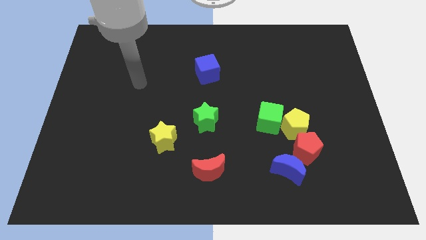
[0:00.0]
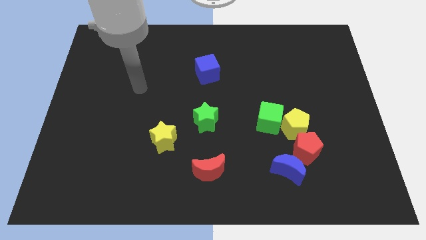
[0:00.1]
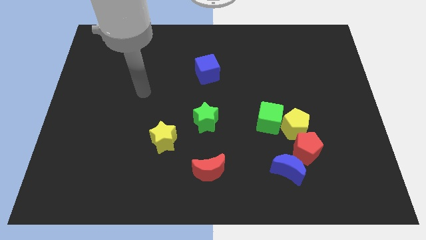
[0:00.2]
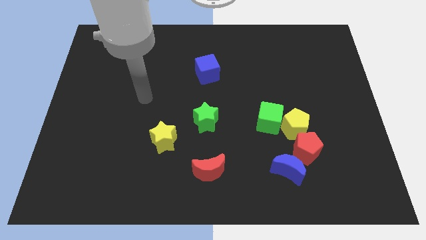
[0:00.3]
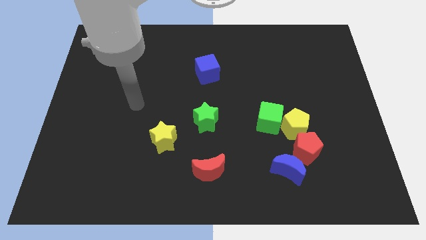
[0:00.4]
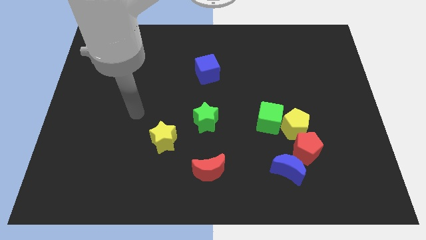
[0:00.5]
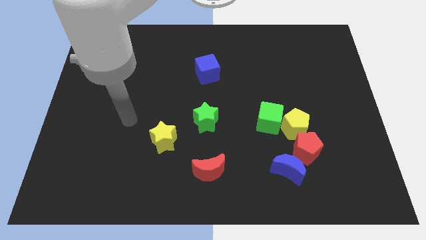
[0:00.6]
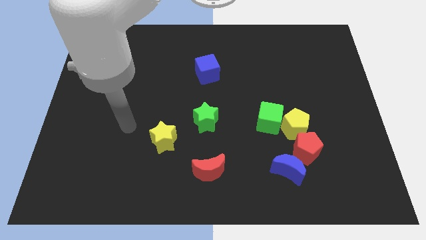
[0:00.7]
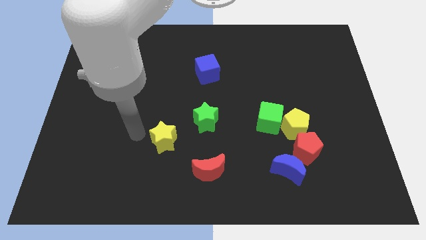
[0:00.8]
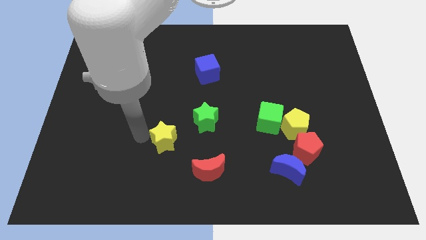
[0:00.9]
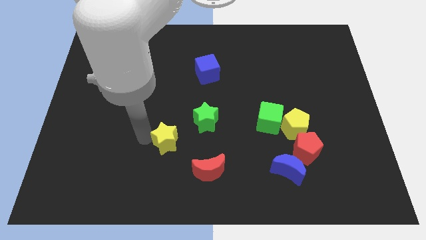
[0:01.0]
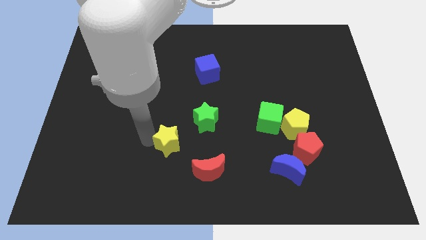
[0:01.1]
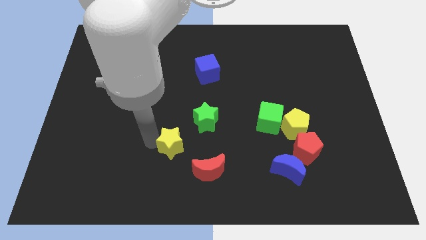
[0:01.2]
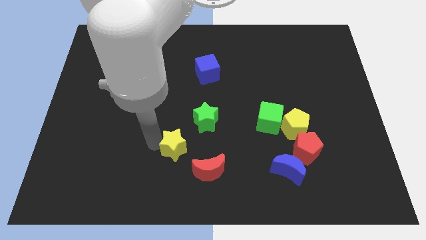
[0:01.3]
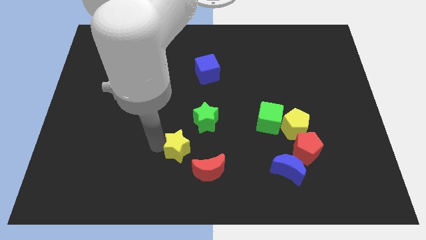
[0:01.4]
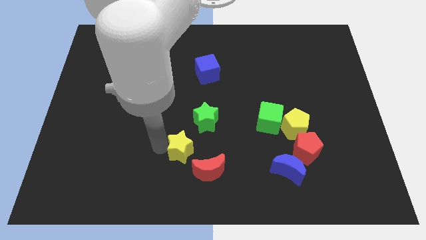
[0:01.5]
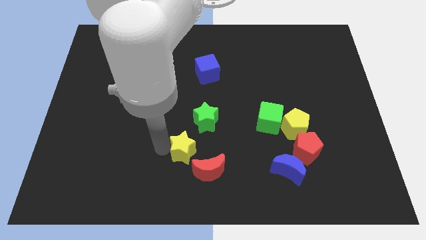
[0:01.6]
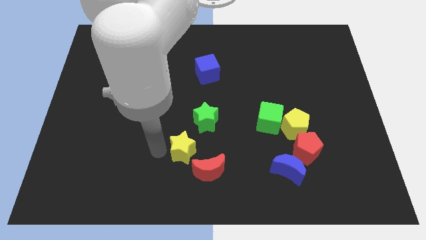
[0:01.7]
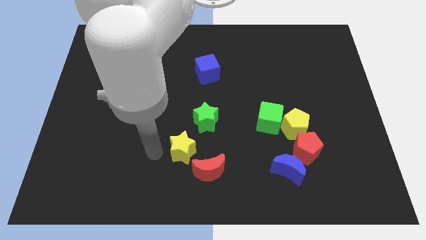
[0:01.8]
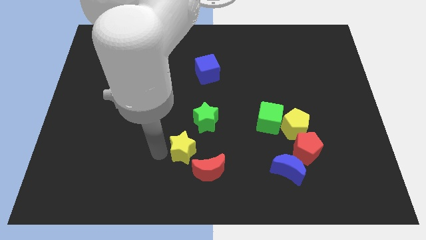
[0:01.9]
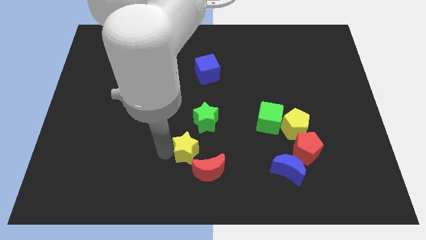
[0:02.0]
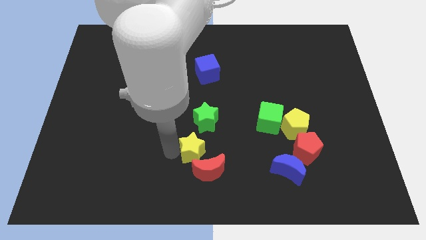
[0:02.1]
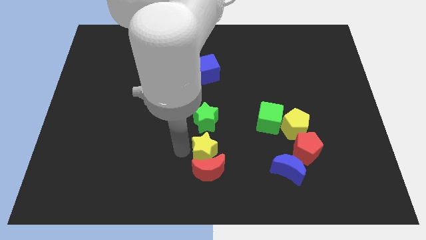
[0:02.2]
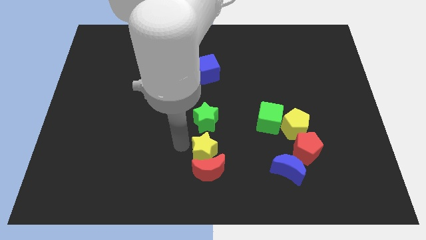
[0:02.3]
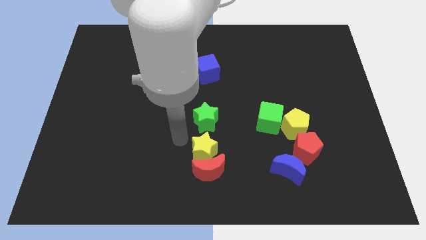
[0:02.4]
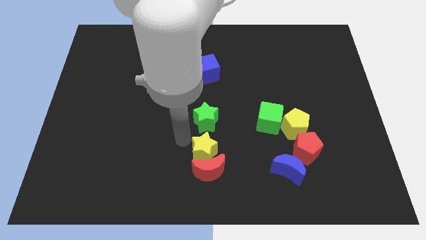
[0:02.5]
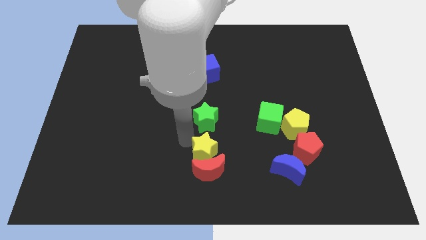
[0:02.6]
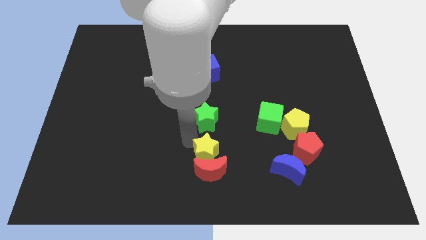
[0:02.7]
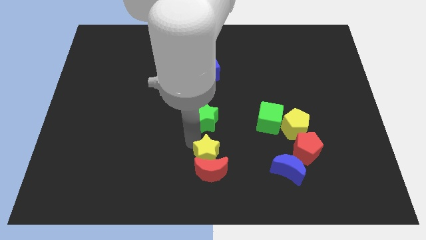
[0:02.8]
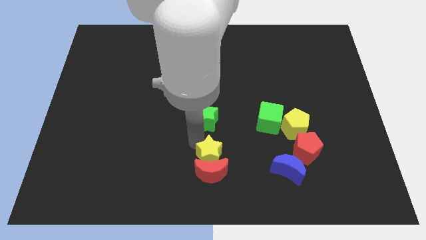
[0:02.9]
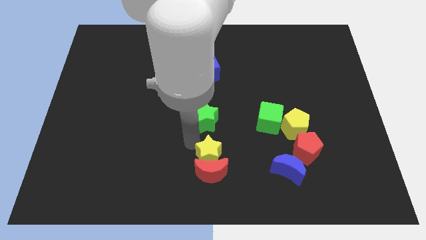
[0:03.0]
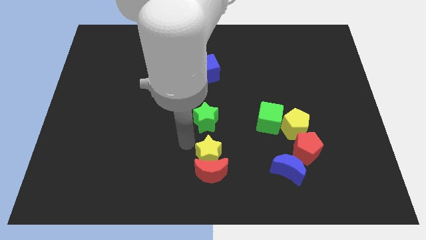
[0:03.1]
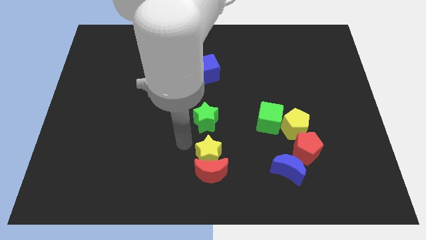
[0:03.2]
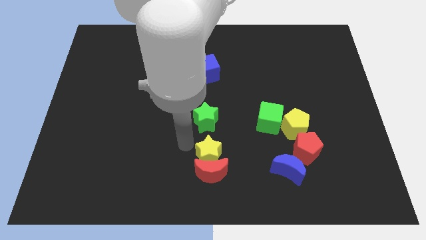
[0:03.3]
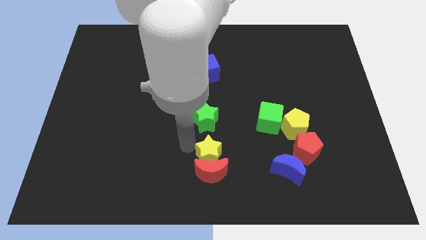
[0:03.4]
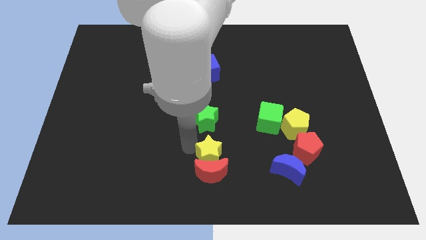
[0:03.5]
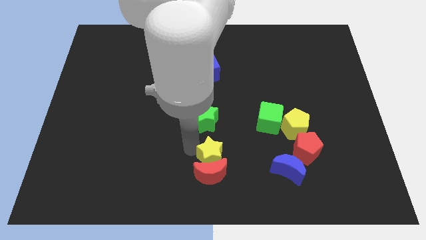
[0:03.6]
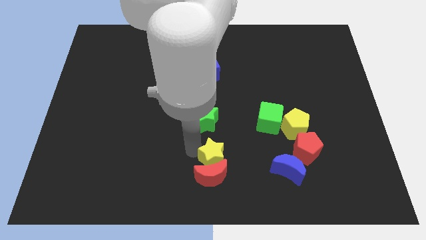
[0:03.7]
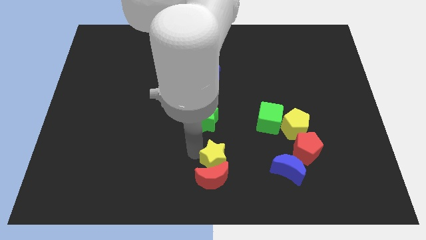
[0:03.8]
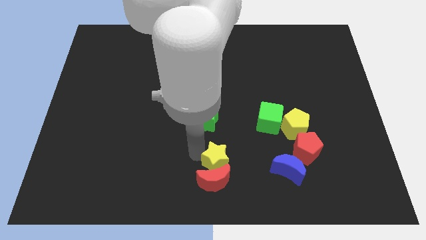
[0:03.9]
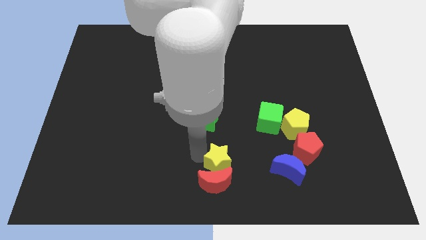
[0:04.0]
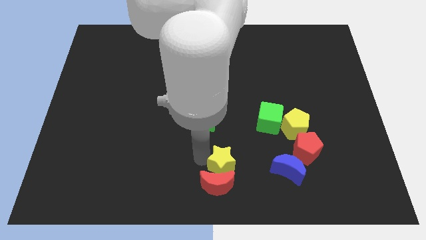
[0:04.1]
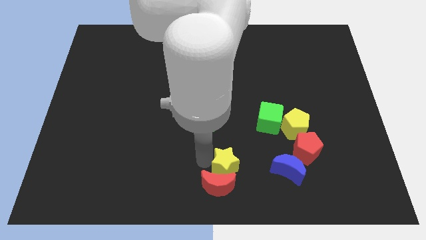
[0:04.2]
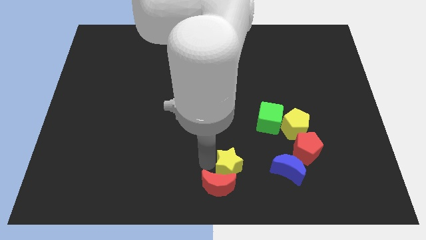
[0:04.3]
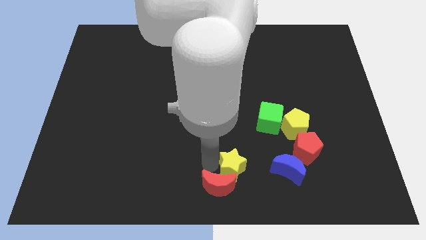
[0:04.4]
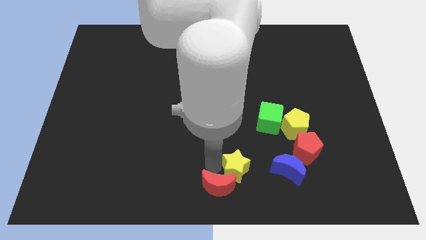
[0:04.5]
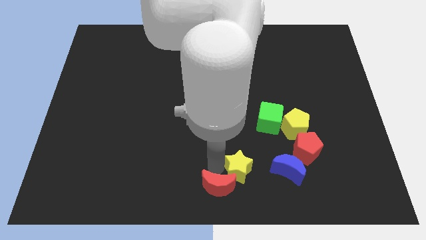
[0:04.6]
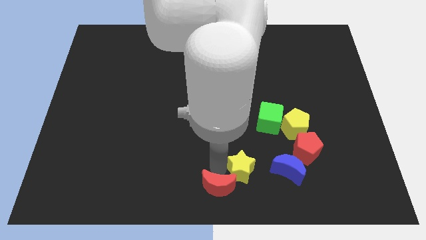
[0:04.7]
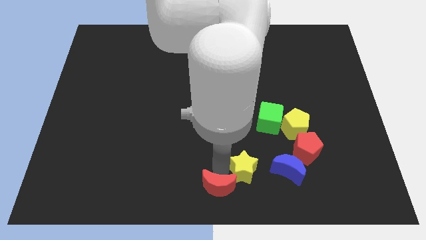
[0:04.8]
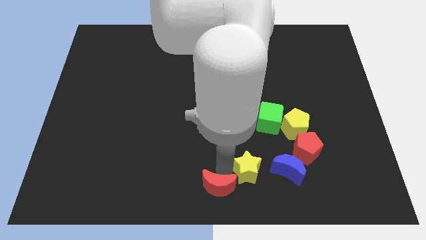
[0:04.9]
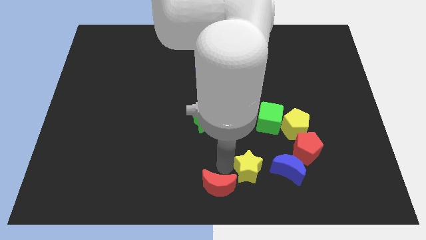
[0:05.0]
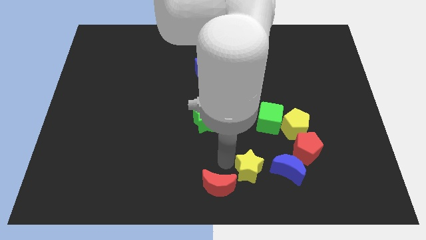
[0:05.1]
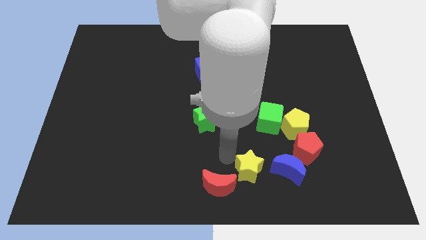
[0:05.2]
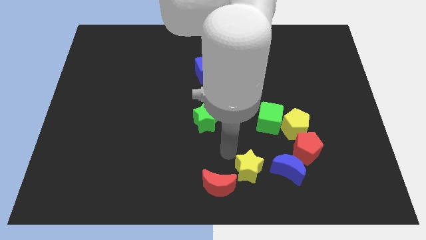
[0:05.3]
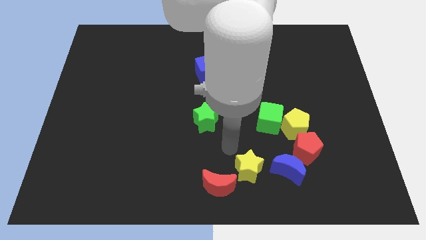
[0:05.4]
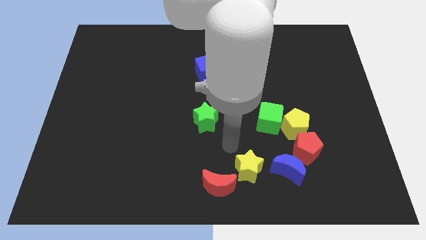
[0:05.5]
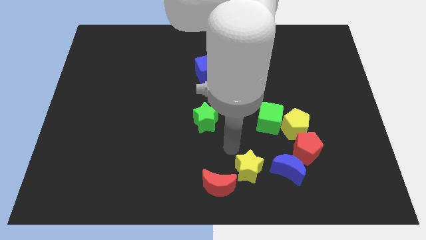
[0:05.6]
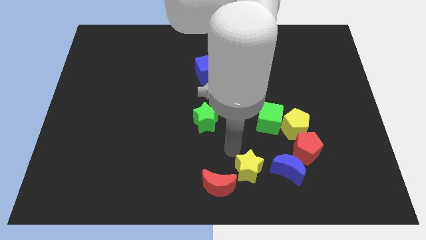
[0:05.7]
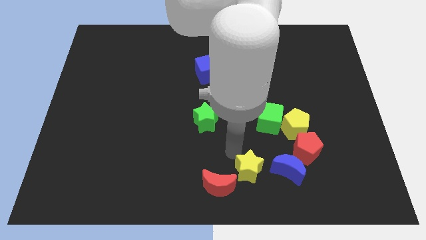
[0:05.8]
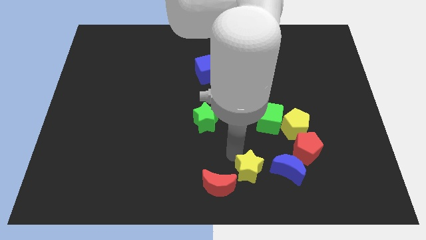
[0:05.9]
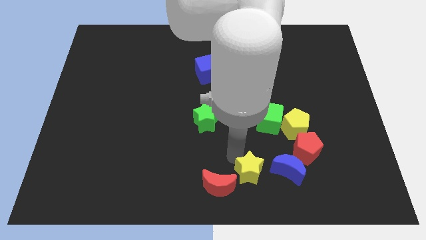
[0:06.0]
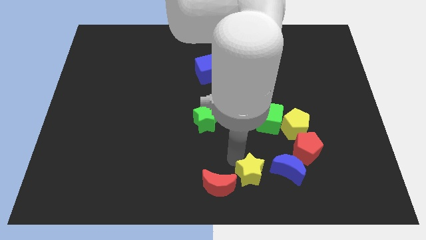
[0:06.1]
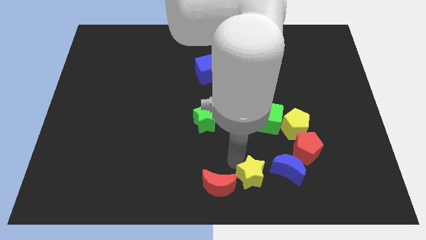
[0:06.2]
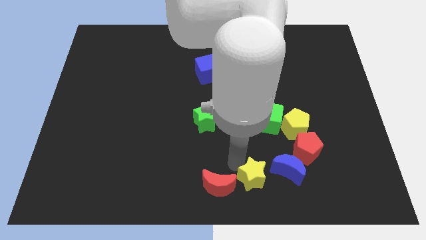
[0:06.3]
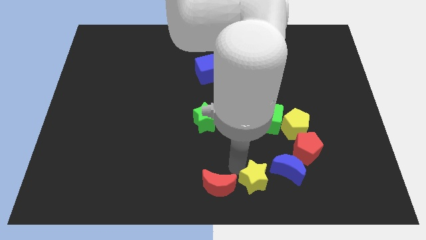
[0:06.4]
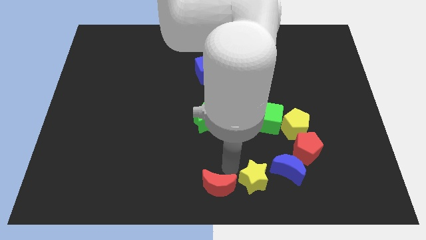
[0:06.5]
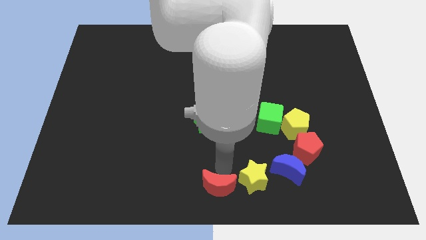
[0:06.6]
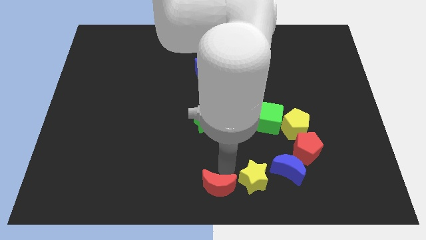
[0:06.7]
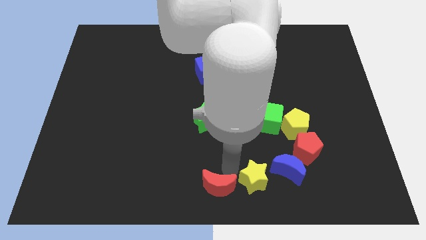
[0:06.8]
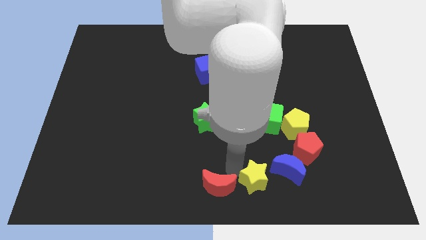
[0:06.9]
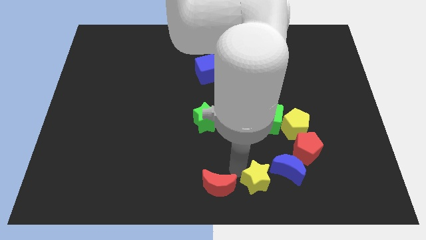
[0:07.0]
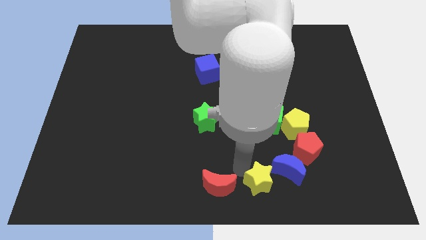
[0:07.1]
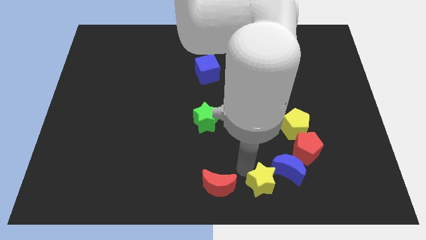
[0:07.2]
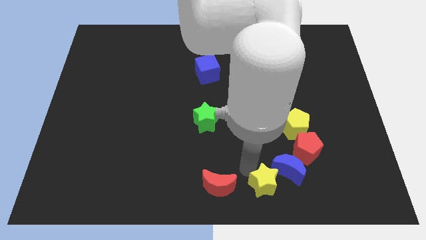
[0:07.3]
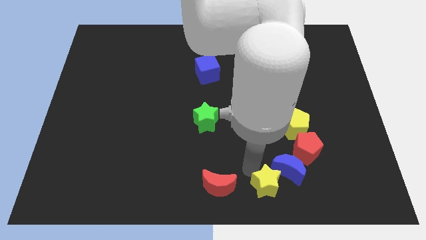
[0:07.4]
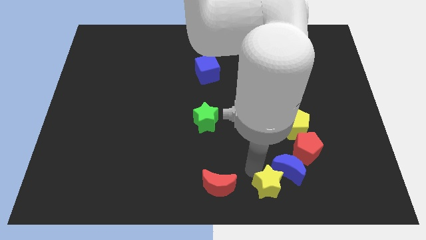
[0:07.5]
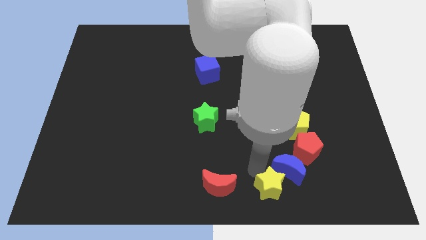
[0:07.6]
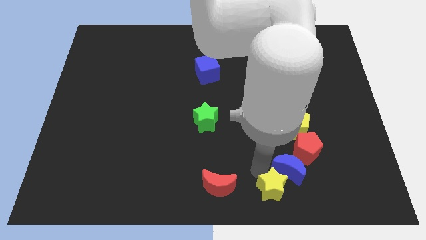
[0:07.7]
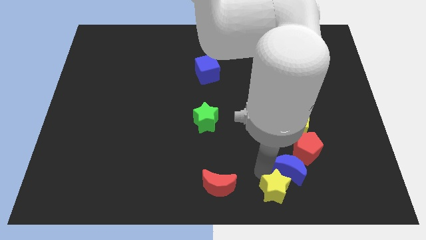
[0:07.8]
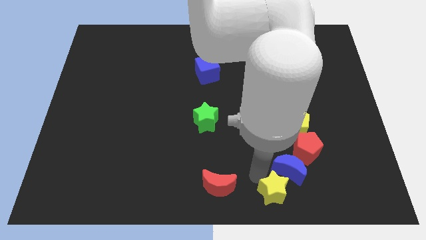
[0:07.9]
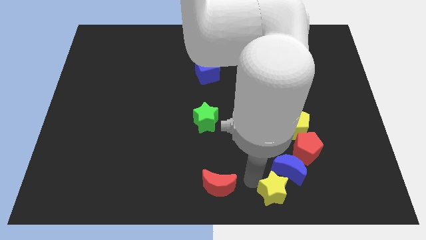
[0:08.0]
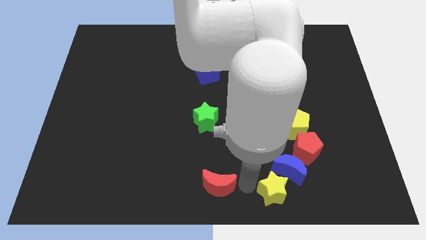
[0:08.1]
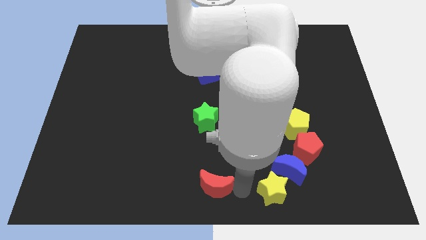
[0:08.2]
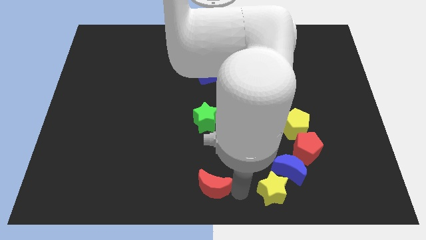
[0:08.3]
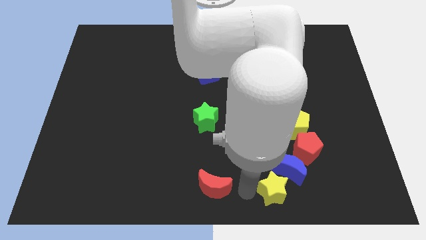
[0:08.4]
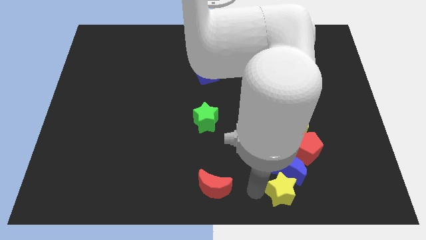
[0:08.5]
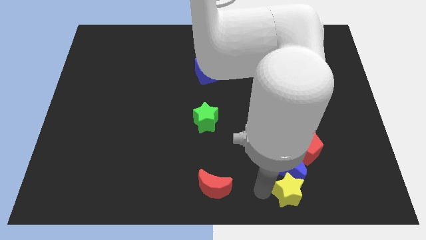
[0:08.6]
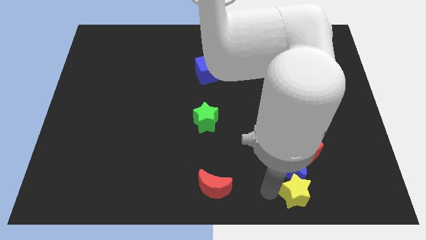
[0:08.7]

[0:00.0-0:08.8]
slide the yellow star to the bottom of the yellow pentagon
